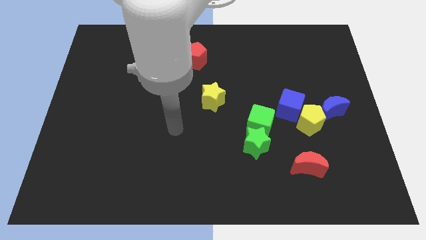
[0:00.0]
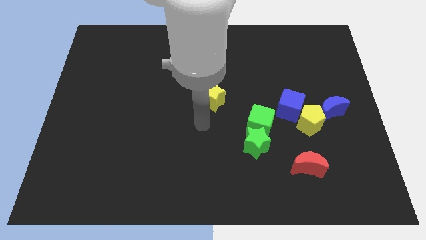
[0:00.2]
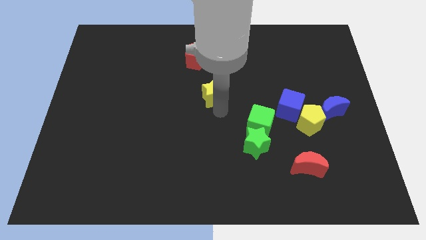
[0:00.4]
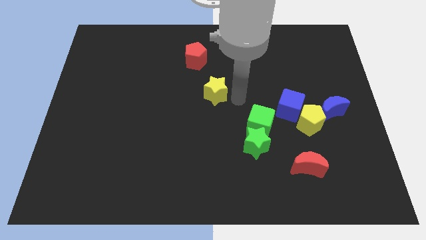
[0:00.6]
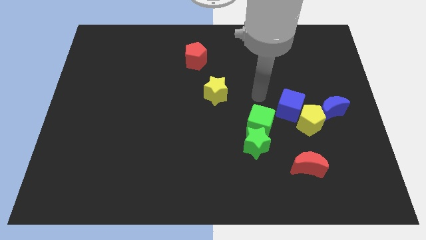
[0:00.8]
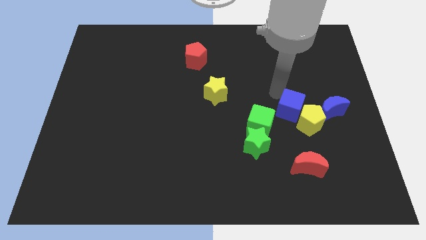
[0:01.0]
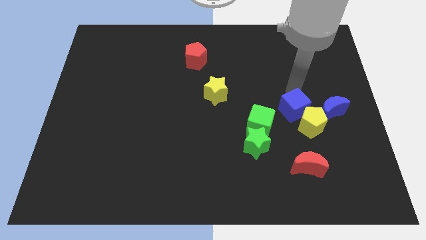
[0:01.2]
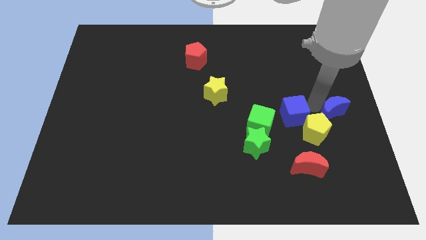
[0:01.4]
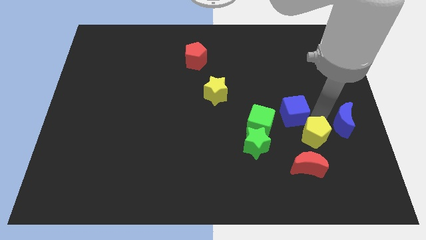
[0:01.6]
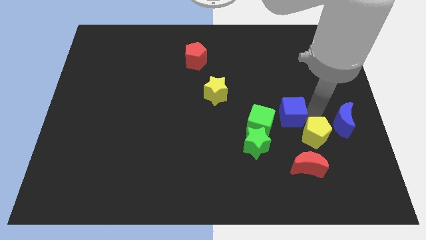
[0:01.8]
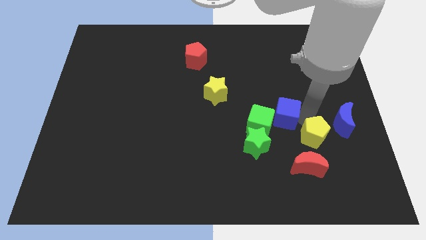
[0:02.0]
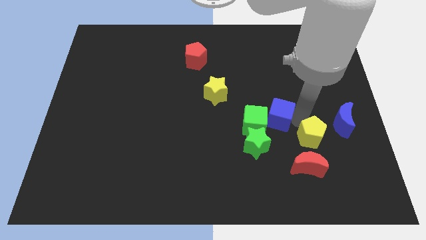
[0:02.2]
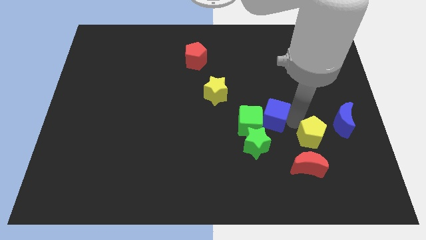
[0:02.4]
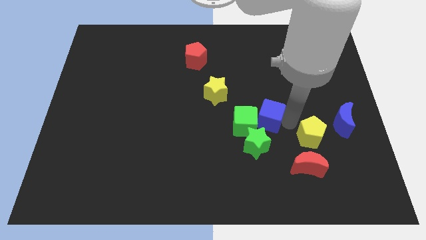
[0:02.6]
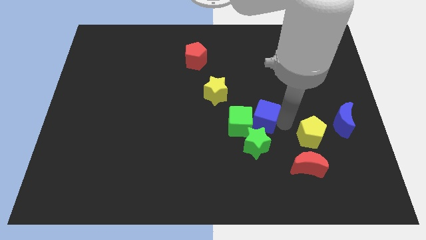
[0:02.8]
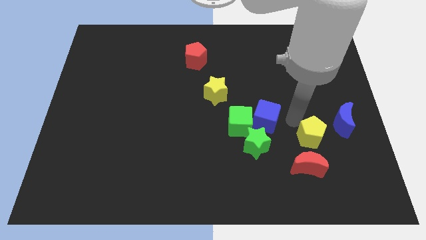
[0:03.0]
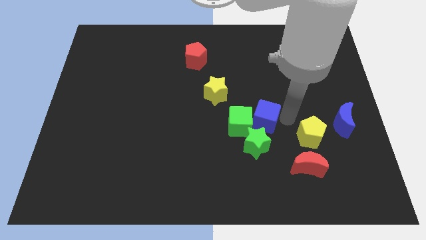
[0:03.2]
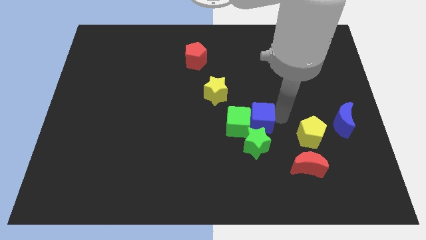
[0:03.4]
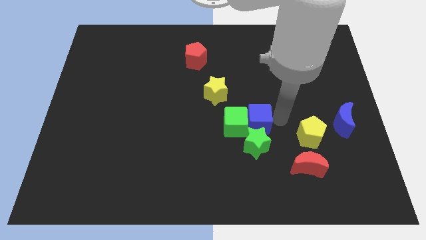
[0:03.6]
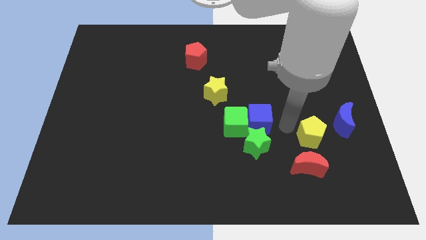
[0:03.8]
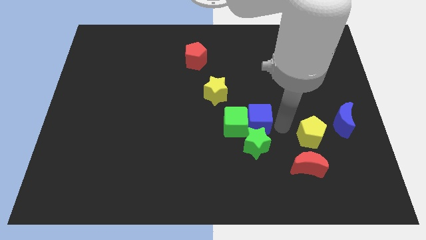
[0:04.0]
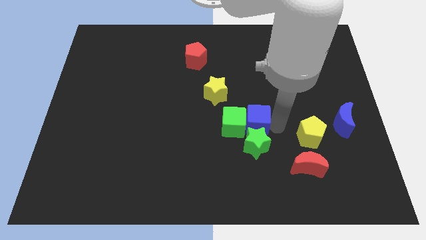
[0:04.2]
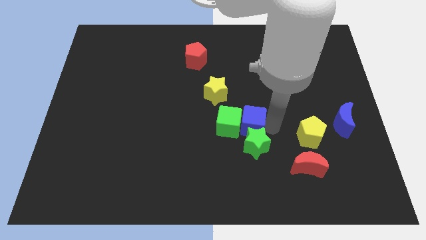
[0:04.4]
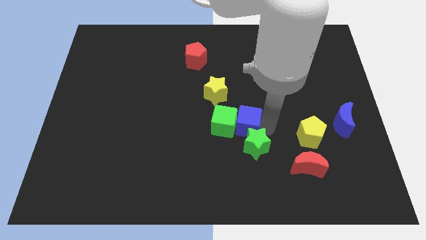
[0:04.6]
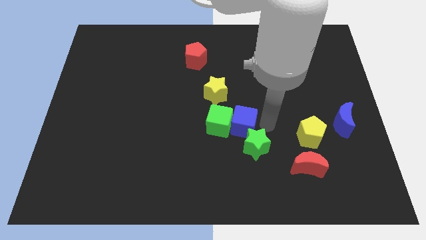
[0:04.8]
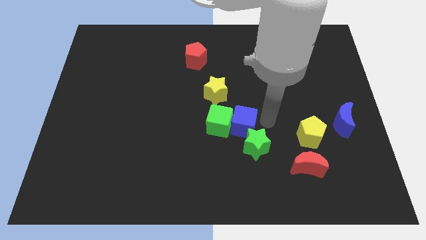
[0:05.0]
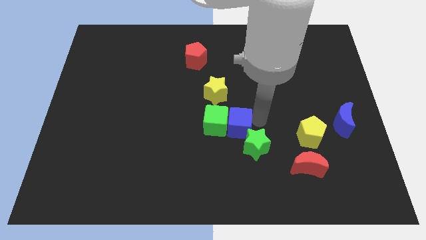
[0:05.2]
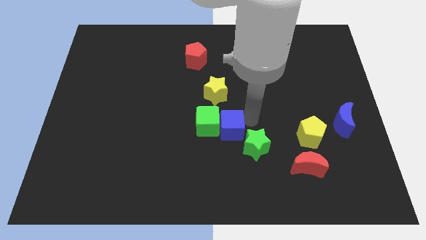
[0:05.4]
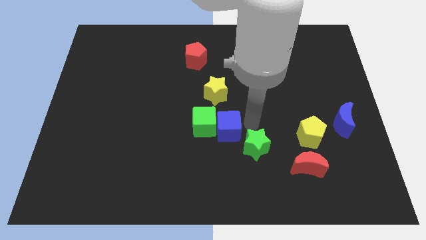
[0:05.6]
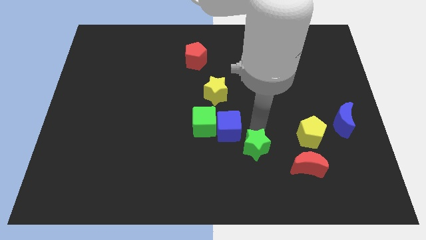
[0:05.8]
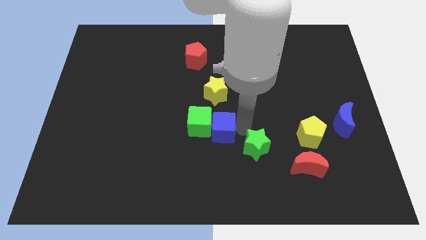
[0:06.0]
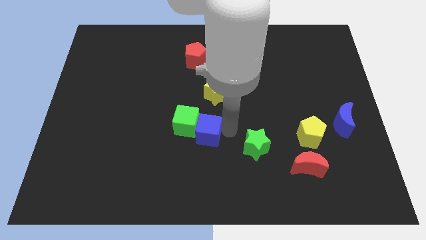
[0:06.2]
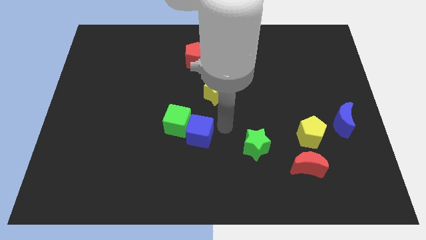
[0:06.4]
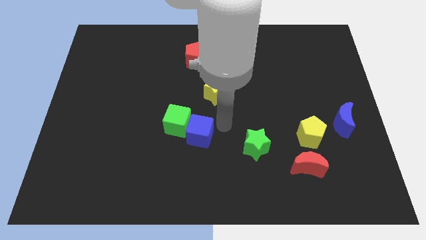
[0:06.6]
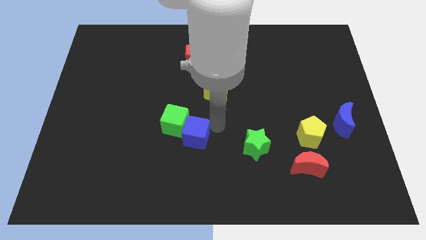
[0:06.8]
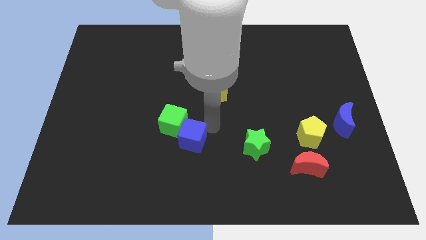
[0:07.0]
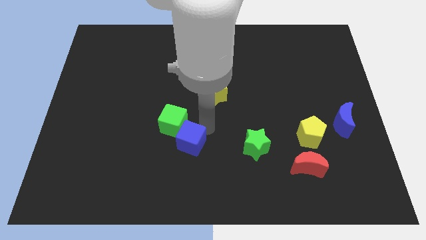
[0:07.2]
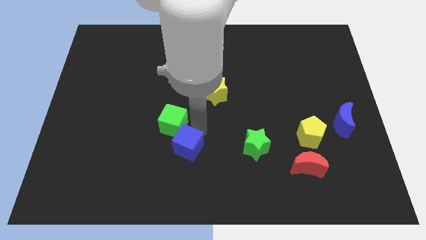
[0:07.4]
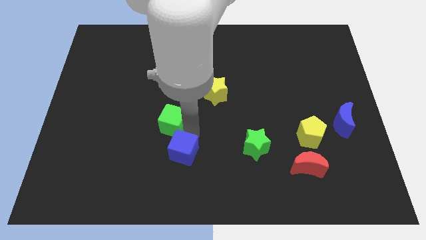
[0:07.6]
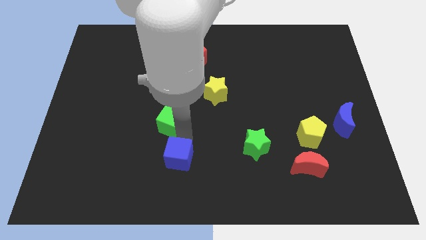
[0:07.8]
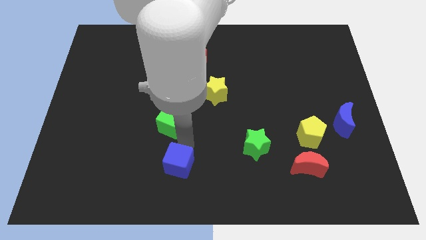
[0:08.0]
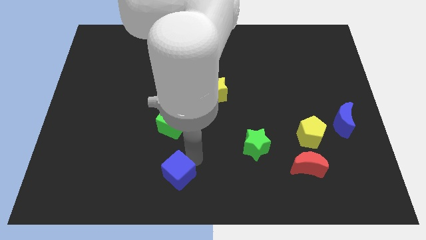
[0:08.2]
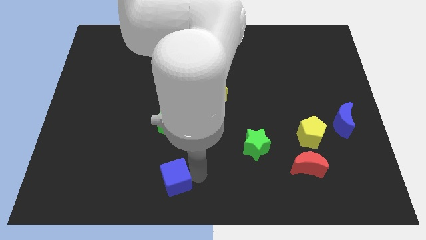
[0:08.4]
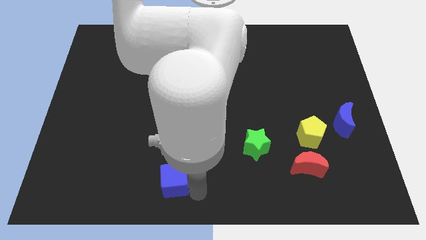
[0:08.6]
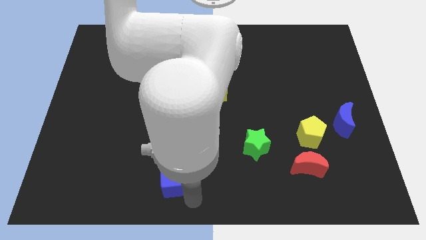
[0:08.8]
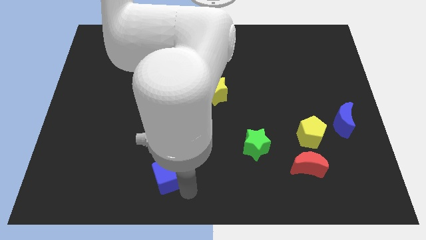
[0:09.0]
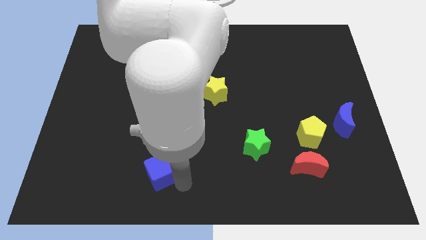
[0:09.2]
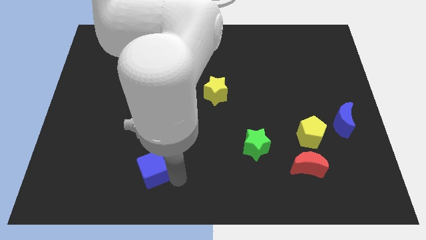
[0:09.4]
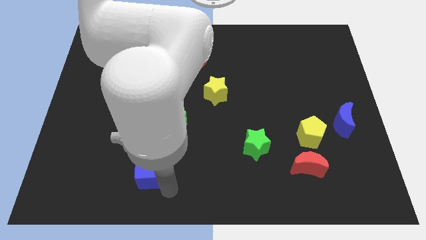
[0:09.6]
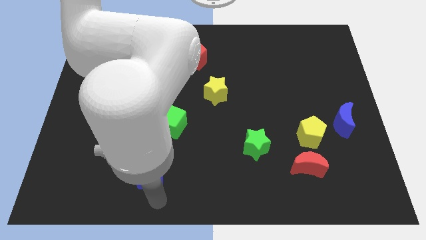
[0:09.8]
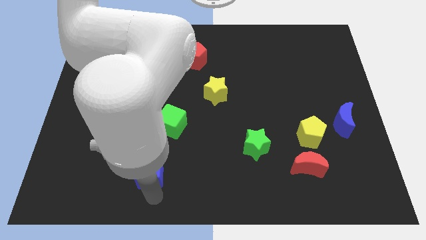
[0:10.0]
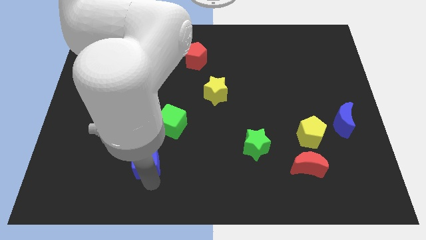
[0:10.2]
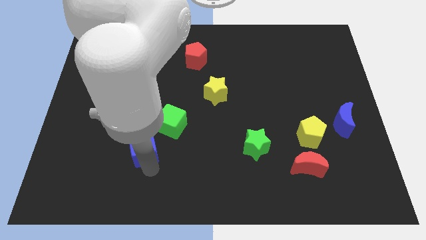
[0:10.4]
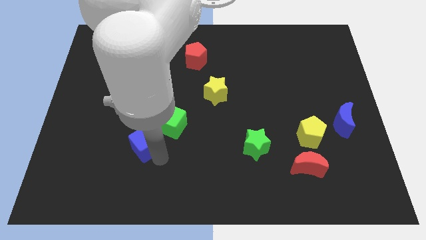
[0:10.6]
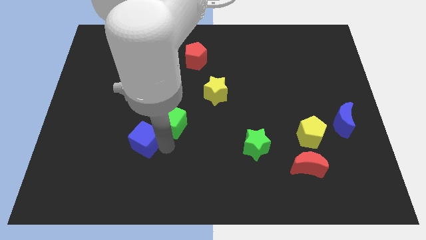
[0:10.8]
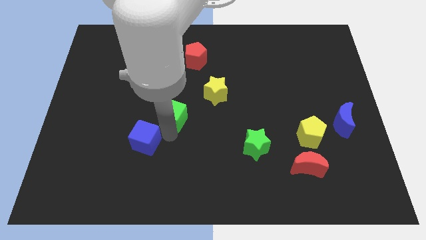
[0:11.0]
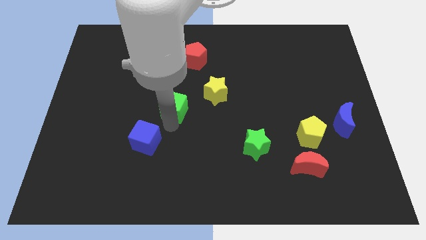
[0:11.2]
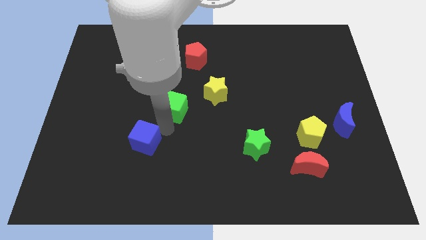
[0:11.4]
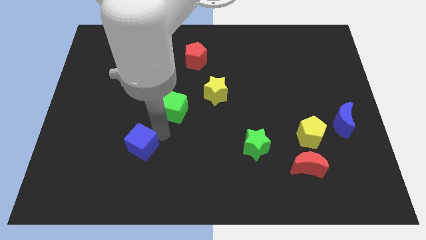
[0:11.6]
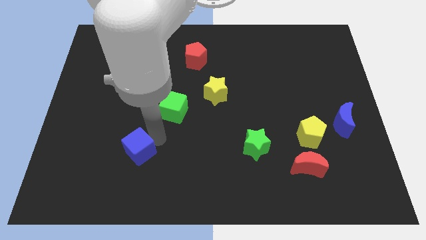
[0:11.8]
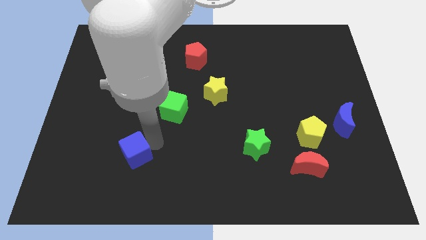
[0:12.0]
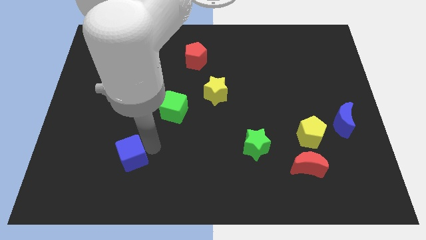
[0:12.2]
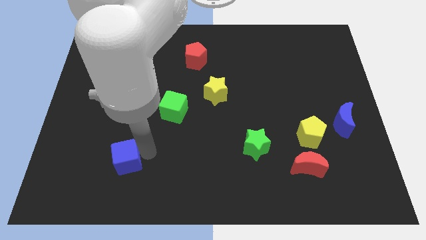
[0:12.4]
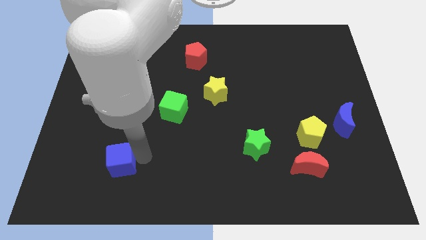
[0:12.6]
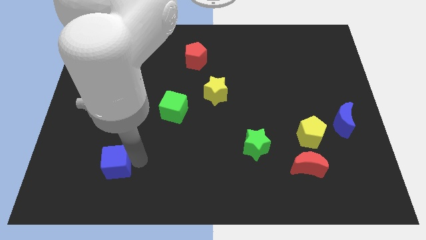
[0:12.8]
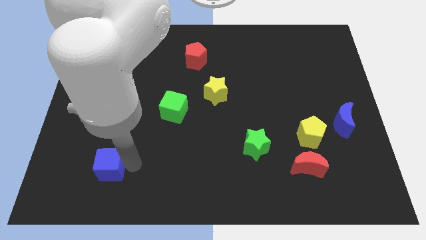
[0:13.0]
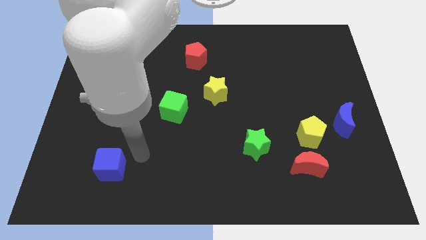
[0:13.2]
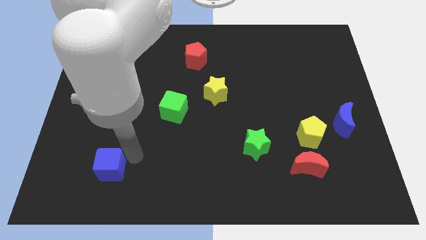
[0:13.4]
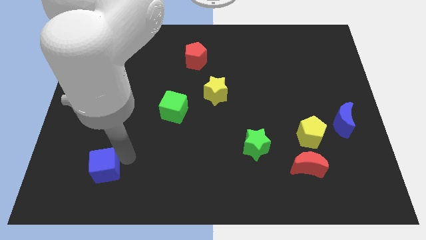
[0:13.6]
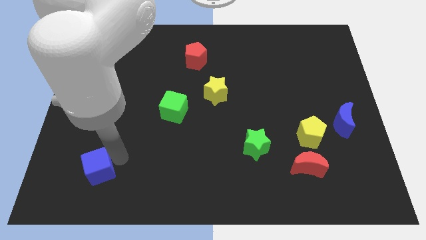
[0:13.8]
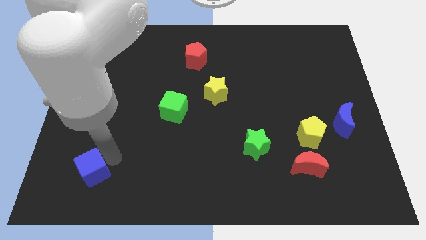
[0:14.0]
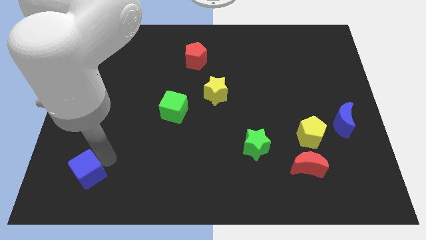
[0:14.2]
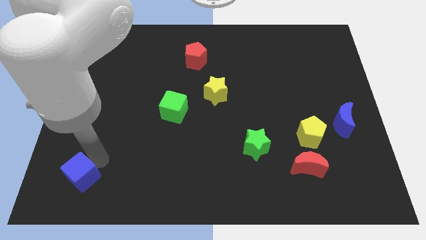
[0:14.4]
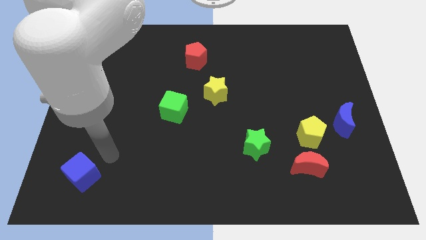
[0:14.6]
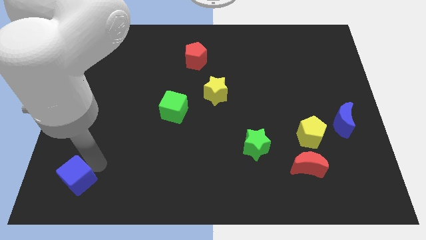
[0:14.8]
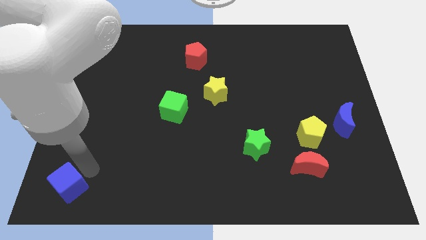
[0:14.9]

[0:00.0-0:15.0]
push the blue cube to the bottom left of the board
